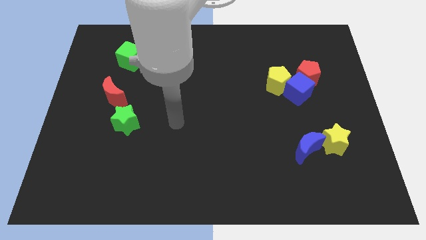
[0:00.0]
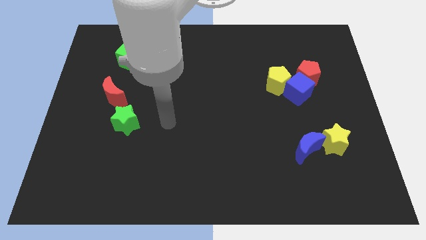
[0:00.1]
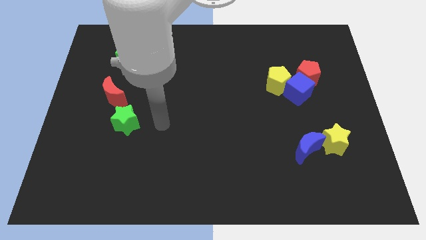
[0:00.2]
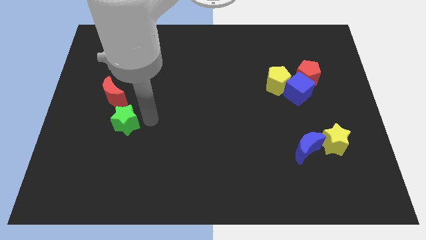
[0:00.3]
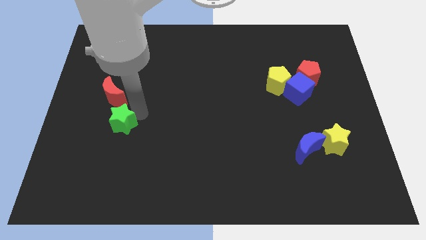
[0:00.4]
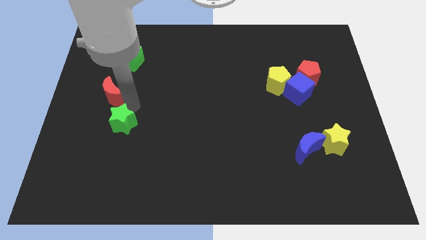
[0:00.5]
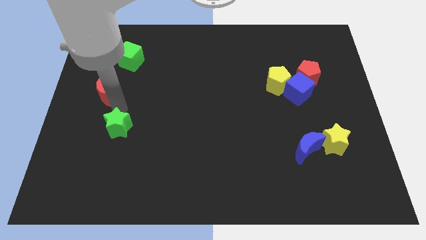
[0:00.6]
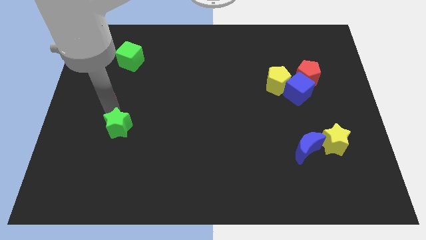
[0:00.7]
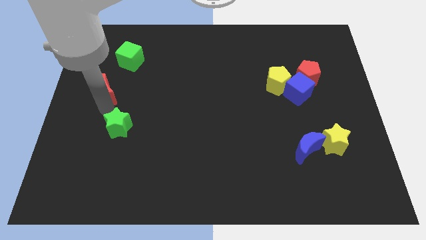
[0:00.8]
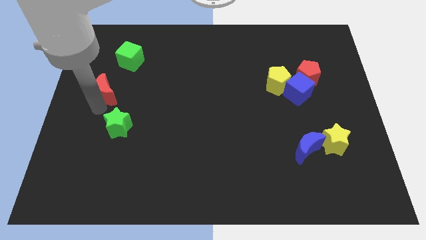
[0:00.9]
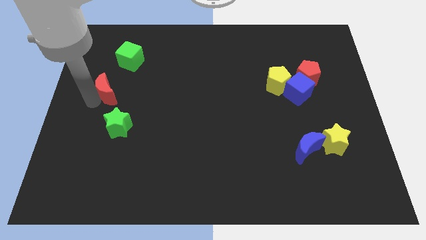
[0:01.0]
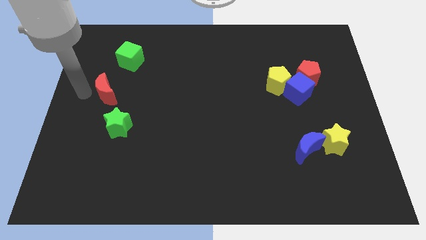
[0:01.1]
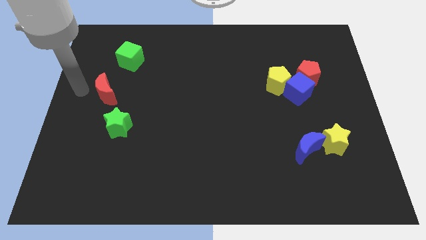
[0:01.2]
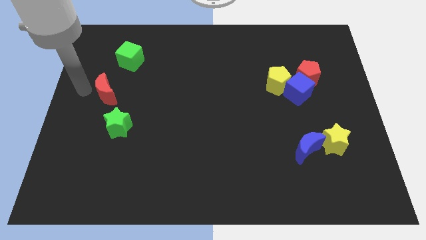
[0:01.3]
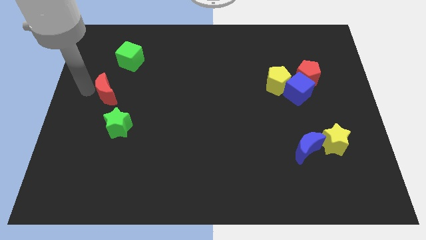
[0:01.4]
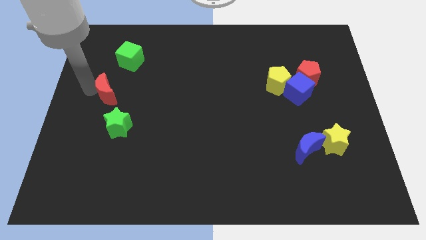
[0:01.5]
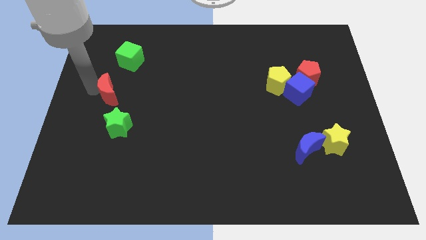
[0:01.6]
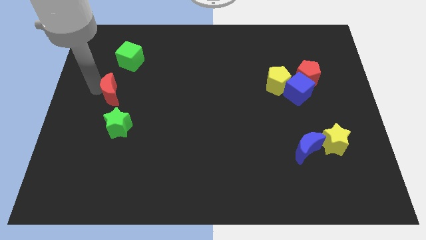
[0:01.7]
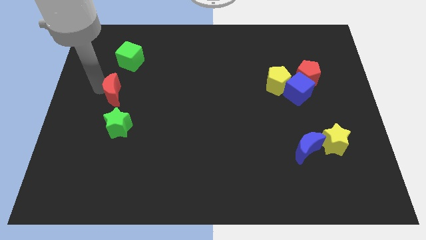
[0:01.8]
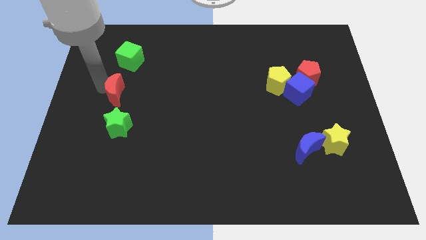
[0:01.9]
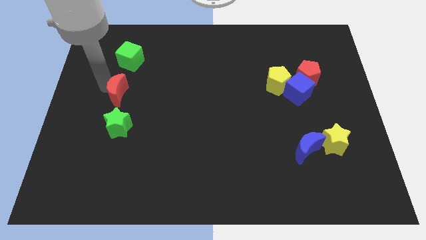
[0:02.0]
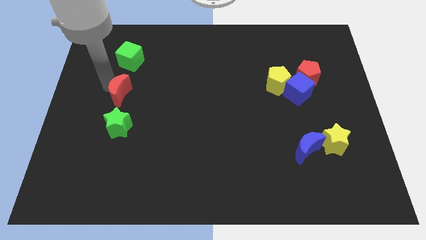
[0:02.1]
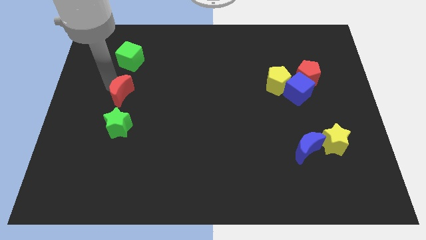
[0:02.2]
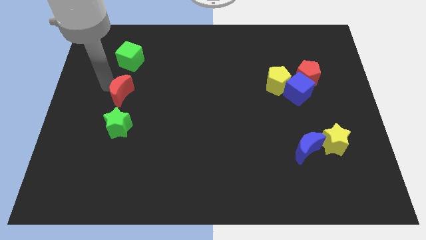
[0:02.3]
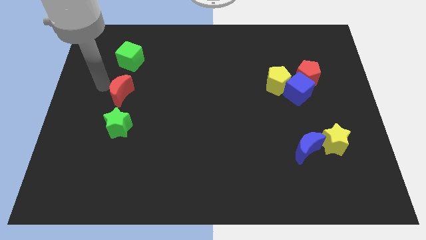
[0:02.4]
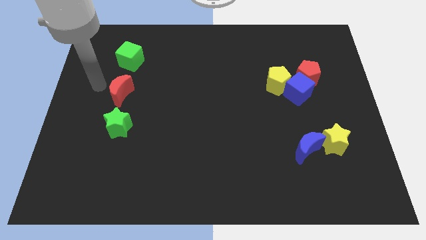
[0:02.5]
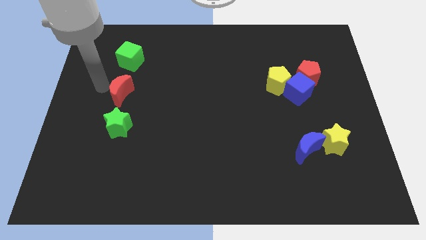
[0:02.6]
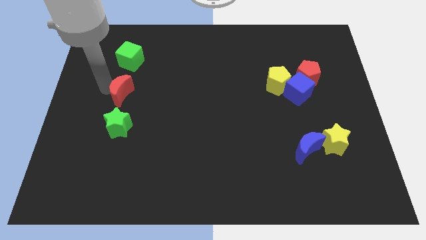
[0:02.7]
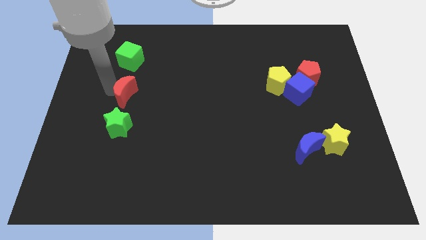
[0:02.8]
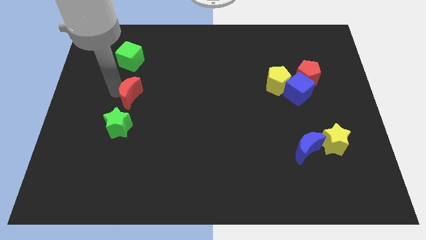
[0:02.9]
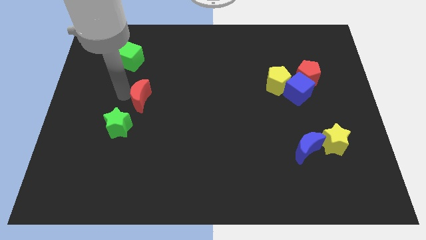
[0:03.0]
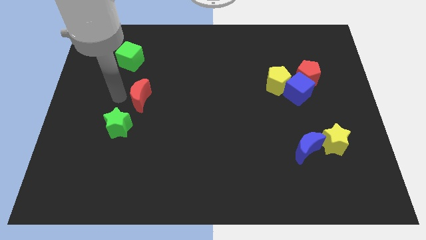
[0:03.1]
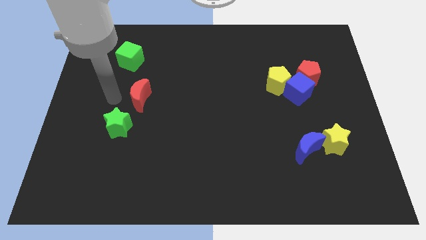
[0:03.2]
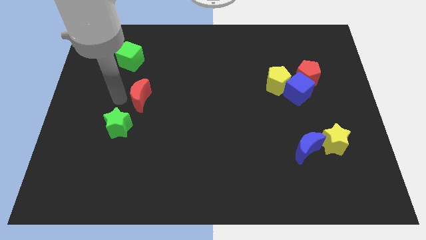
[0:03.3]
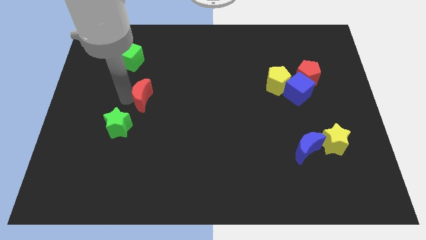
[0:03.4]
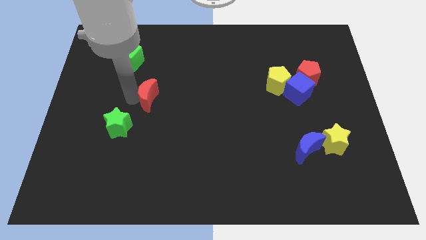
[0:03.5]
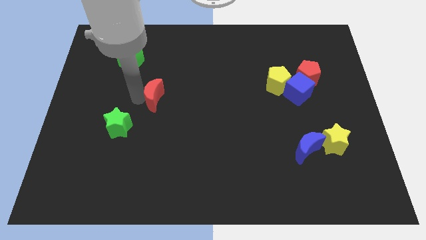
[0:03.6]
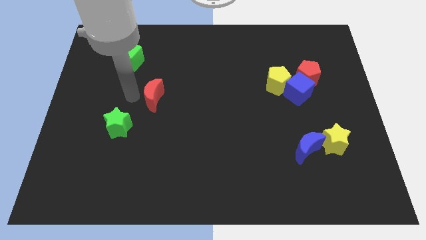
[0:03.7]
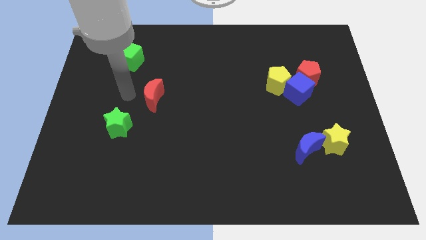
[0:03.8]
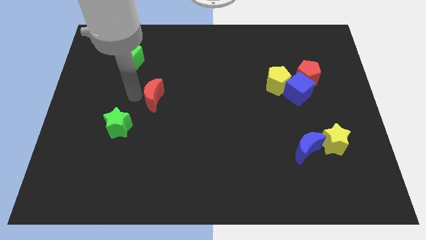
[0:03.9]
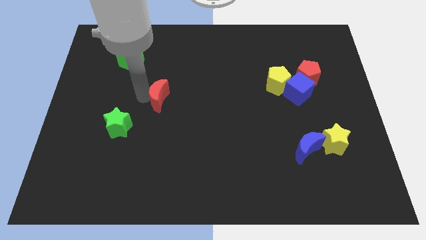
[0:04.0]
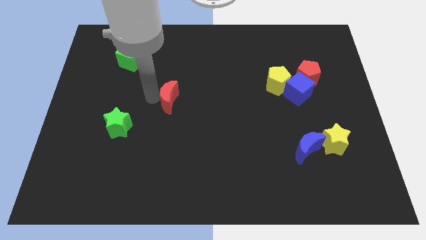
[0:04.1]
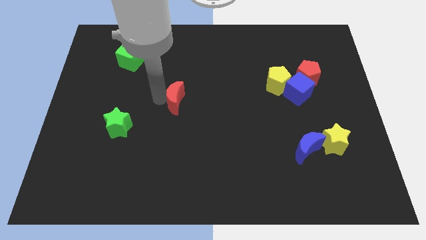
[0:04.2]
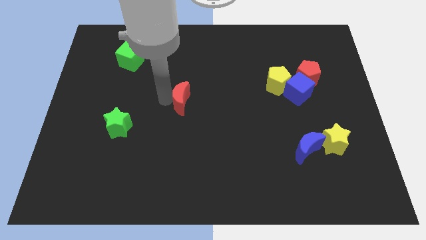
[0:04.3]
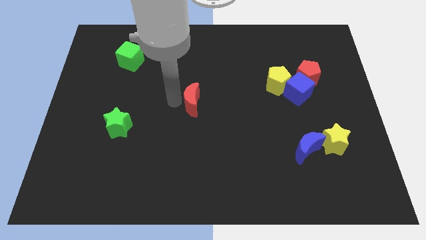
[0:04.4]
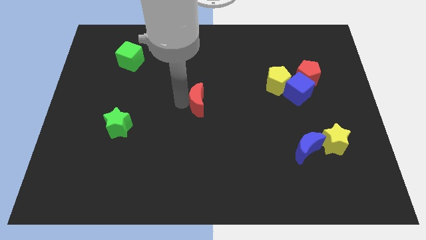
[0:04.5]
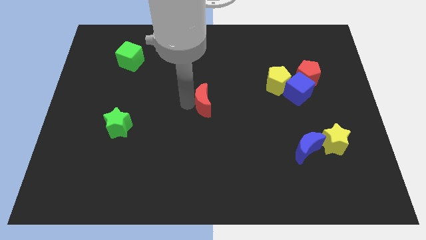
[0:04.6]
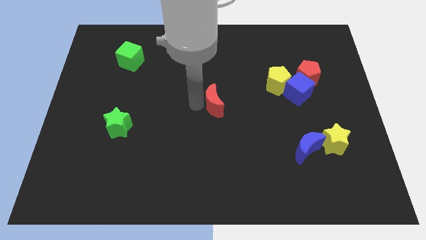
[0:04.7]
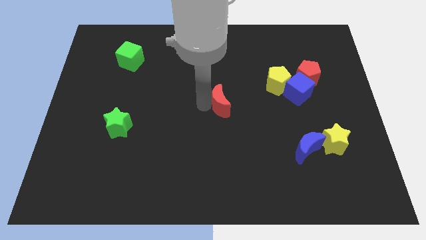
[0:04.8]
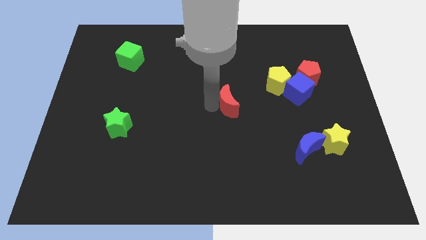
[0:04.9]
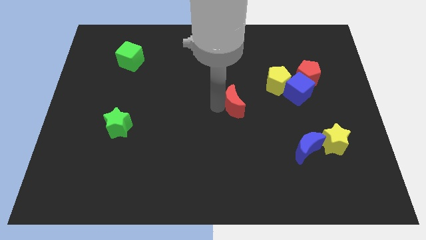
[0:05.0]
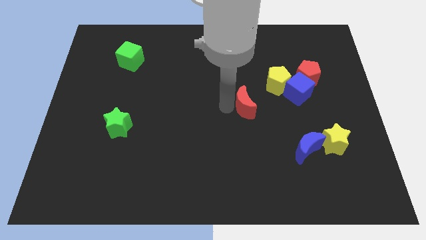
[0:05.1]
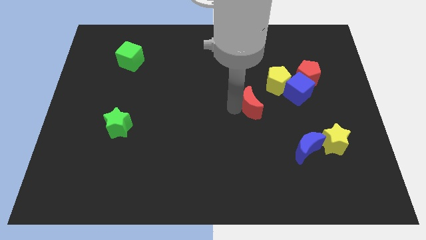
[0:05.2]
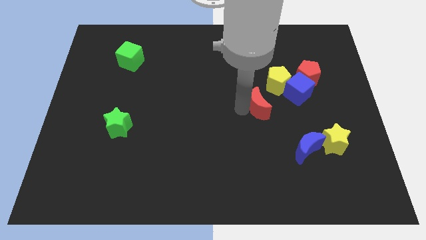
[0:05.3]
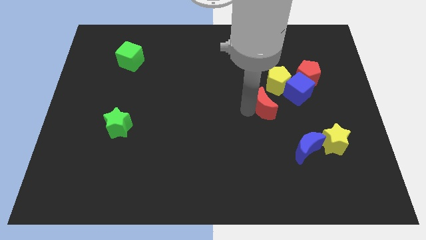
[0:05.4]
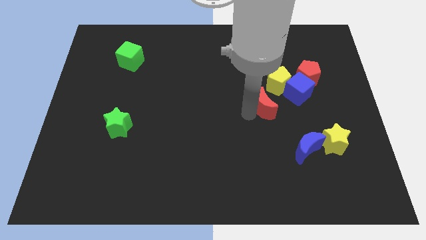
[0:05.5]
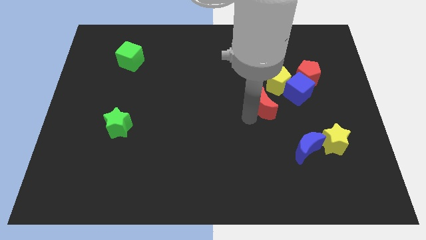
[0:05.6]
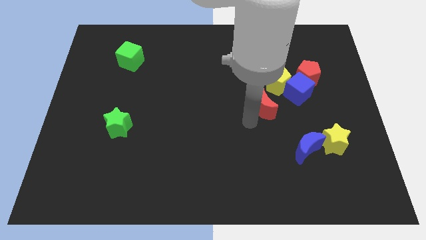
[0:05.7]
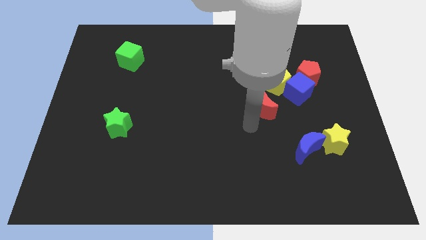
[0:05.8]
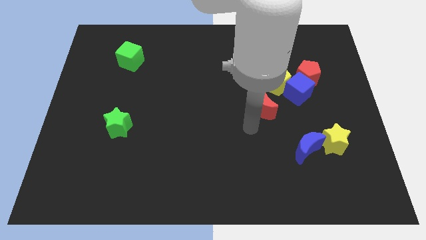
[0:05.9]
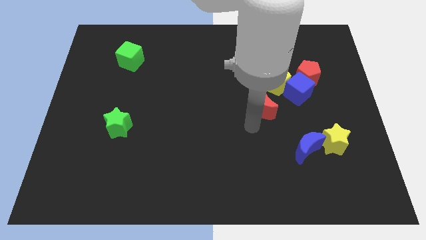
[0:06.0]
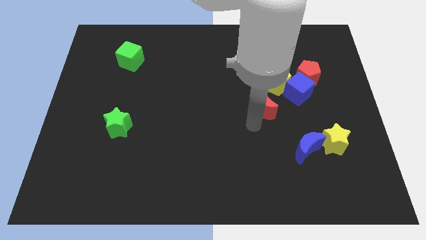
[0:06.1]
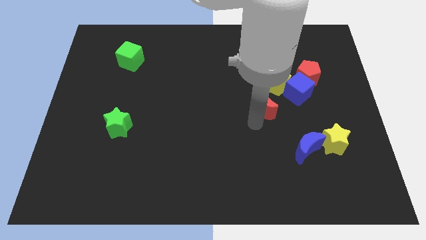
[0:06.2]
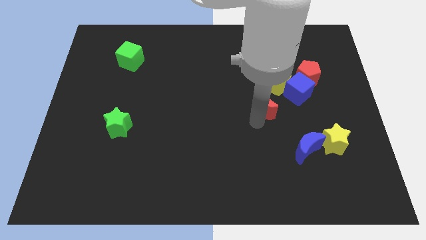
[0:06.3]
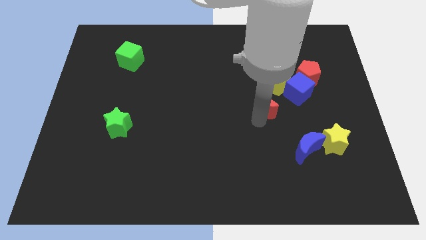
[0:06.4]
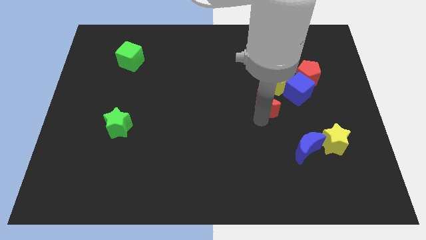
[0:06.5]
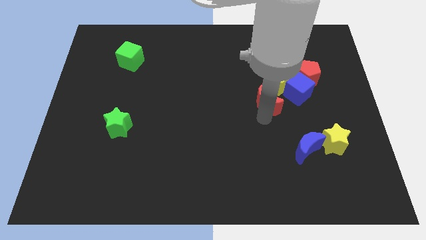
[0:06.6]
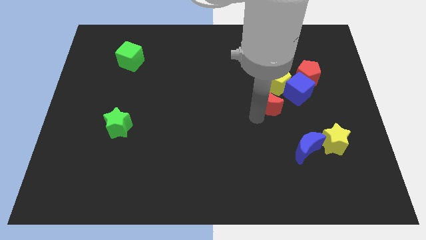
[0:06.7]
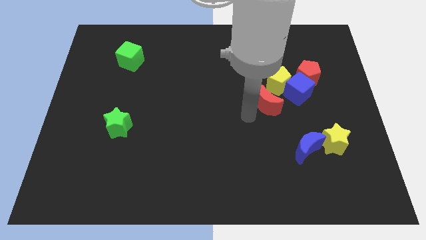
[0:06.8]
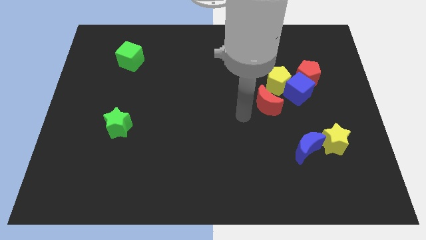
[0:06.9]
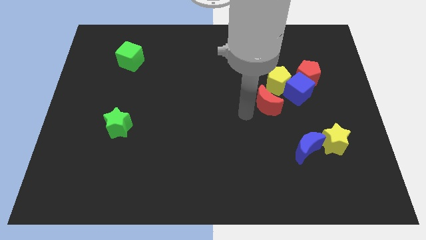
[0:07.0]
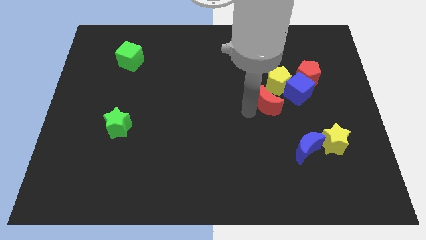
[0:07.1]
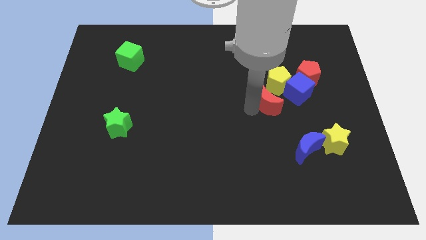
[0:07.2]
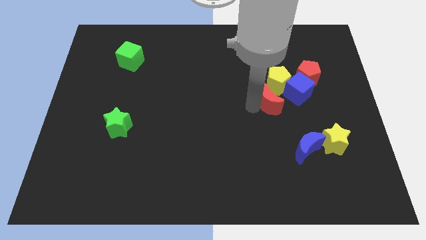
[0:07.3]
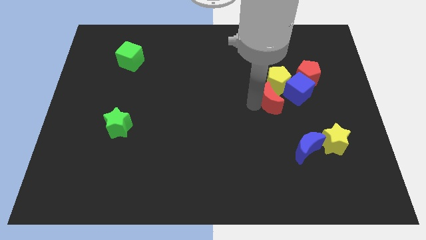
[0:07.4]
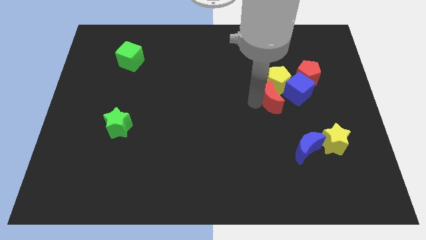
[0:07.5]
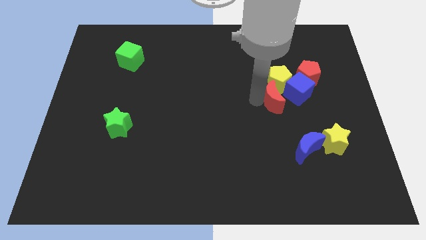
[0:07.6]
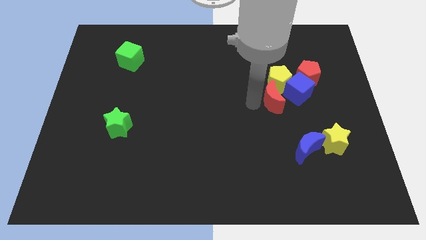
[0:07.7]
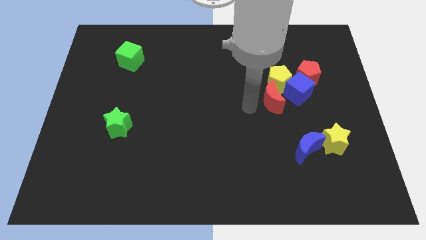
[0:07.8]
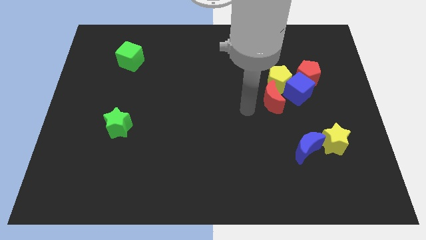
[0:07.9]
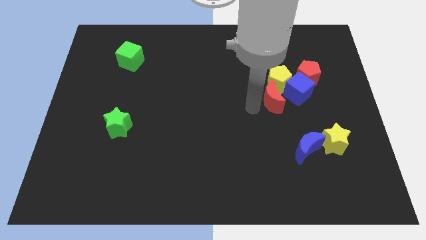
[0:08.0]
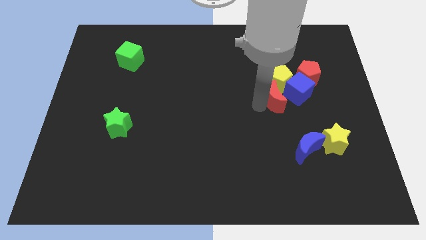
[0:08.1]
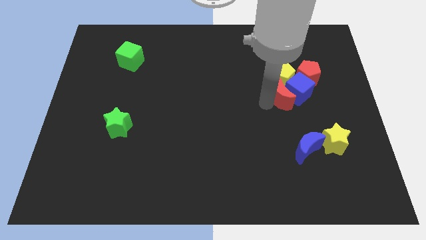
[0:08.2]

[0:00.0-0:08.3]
move the red moon towards the blue cube
